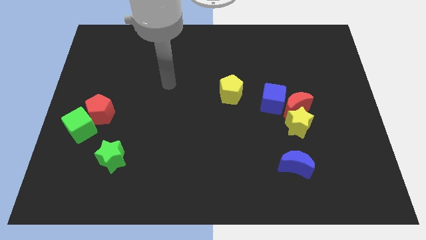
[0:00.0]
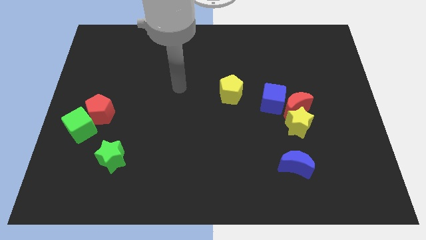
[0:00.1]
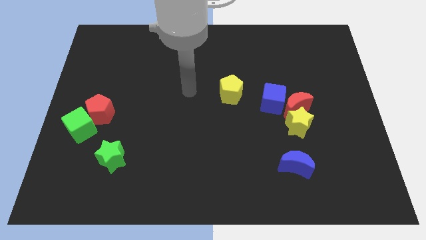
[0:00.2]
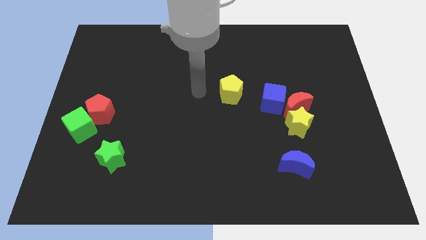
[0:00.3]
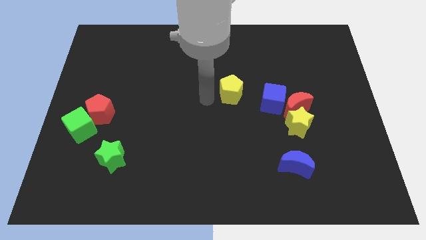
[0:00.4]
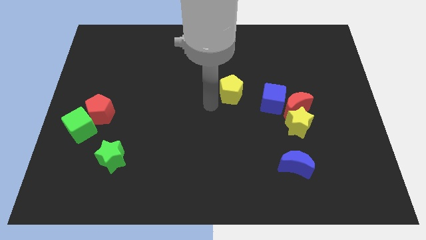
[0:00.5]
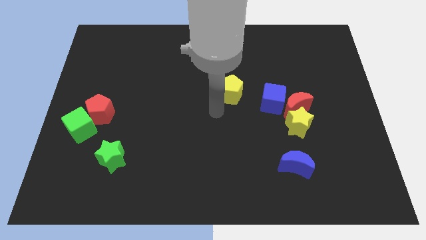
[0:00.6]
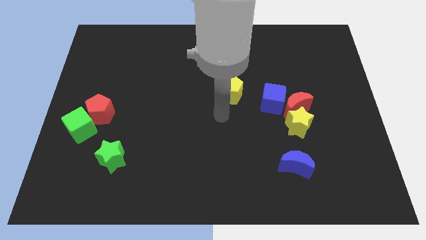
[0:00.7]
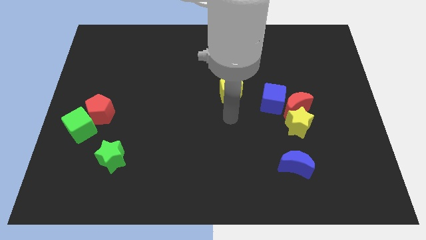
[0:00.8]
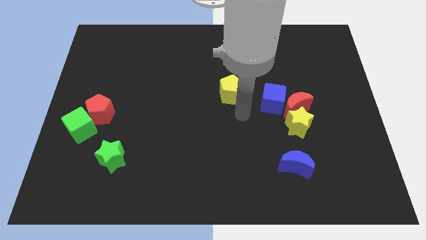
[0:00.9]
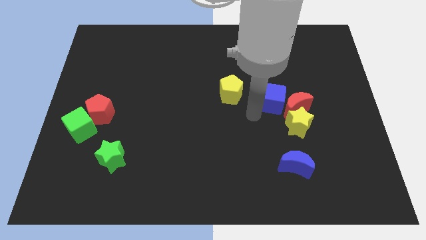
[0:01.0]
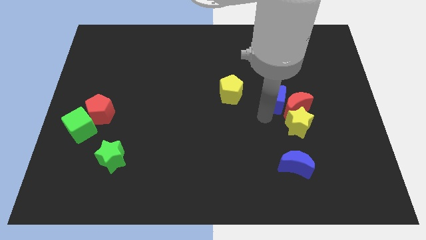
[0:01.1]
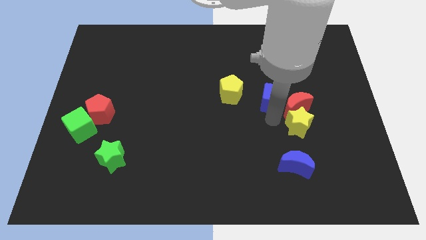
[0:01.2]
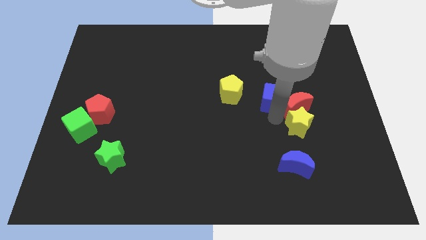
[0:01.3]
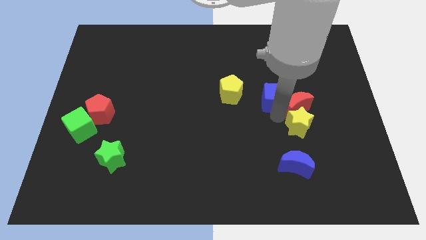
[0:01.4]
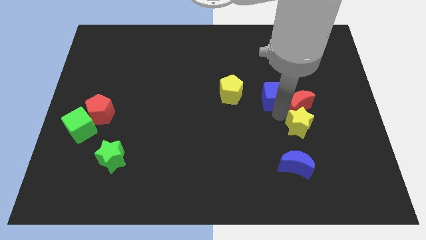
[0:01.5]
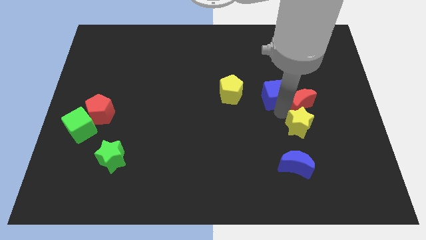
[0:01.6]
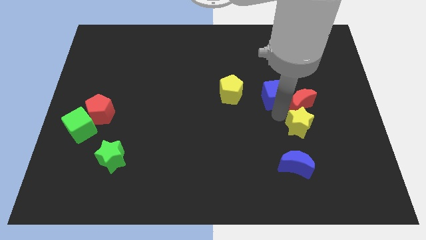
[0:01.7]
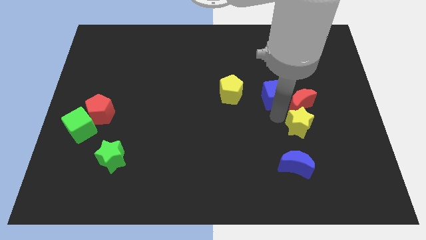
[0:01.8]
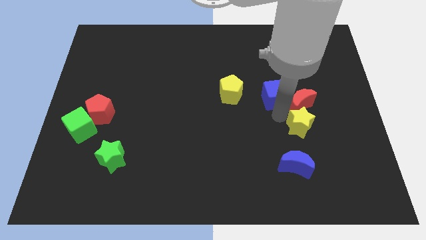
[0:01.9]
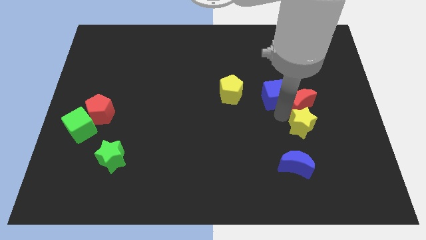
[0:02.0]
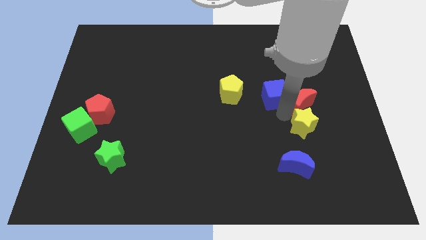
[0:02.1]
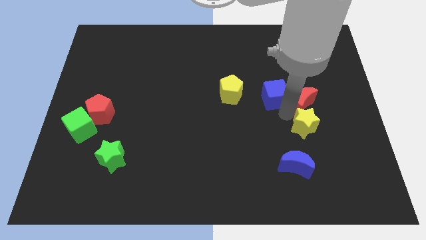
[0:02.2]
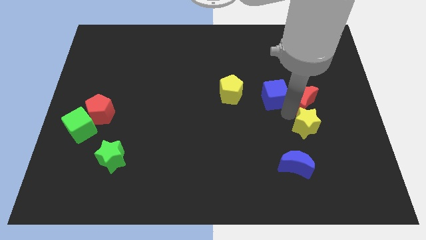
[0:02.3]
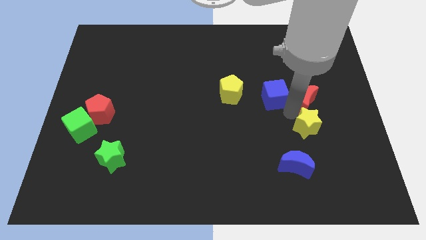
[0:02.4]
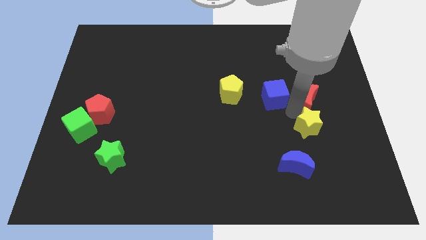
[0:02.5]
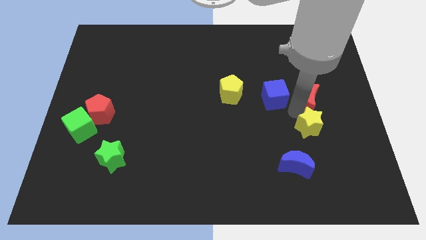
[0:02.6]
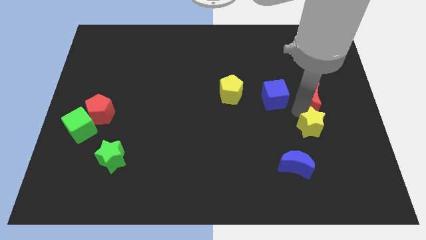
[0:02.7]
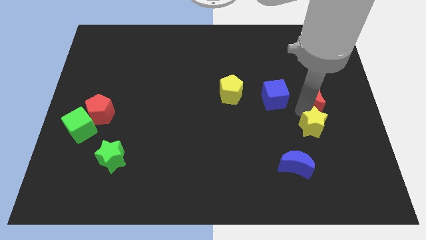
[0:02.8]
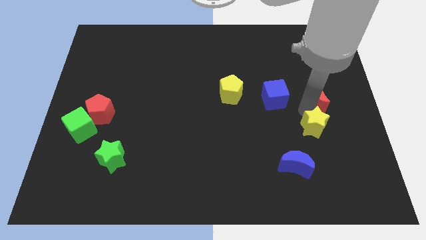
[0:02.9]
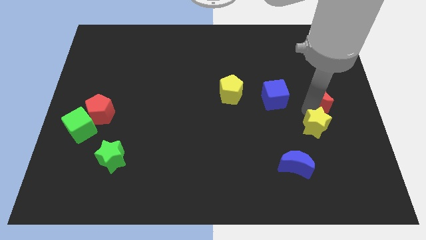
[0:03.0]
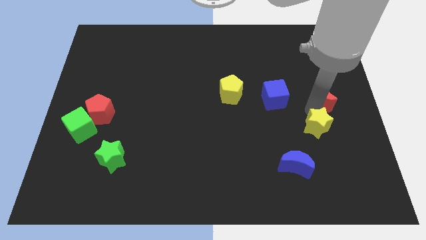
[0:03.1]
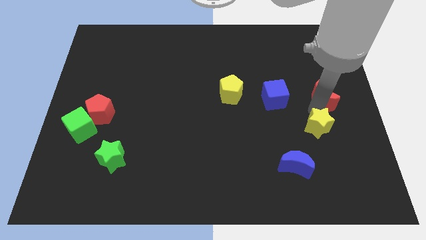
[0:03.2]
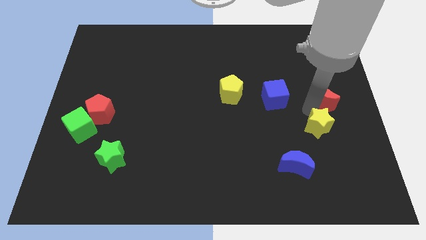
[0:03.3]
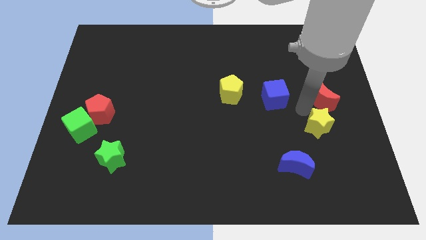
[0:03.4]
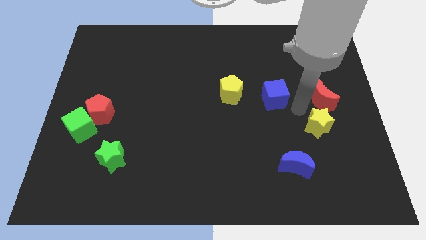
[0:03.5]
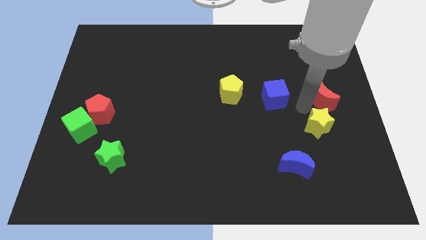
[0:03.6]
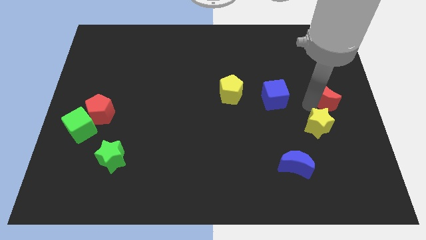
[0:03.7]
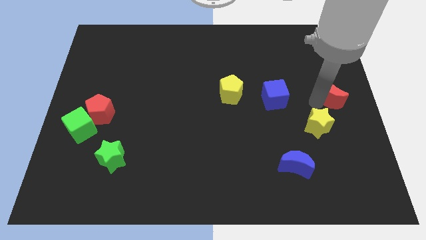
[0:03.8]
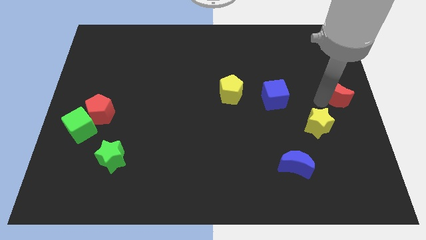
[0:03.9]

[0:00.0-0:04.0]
pull the red moon apart from the yellow star and blue cube

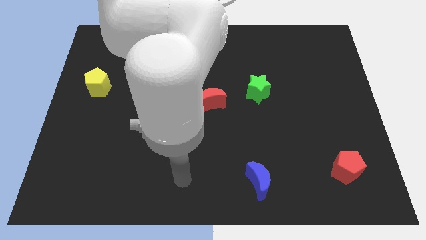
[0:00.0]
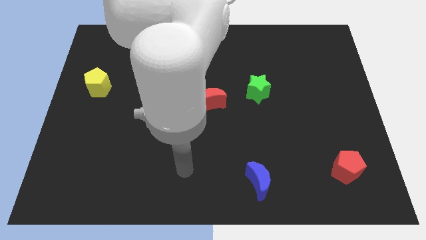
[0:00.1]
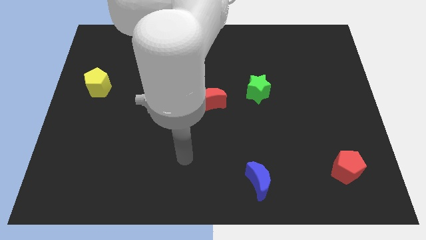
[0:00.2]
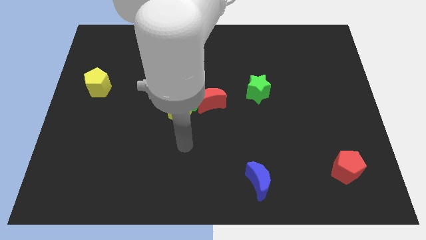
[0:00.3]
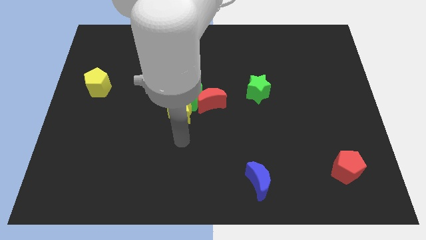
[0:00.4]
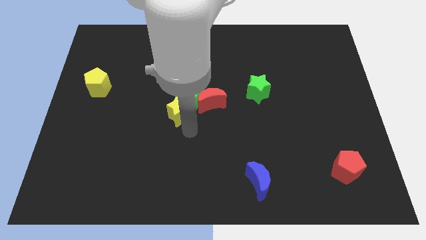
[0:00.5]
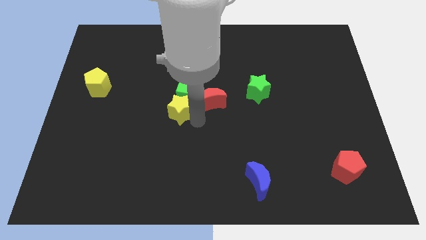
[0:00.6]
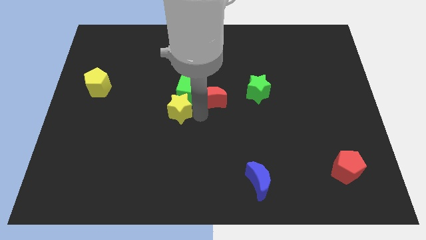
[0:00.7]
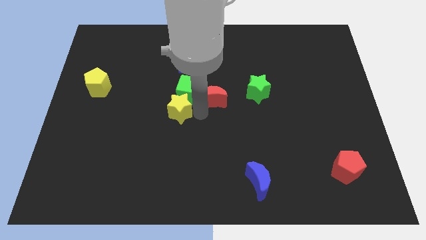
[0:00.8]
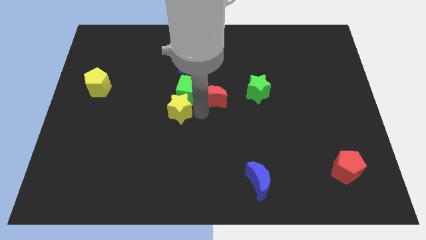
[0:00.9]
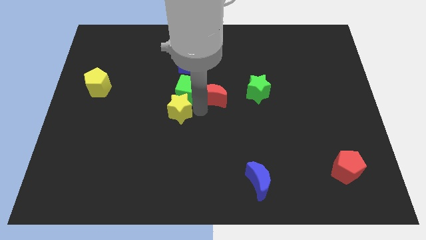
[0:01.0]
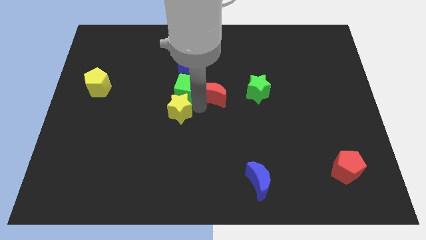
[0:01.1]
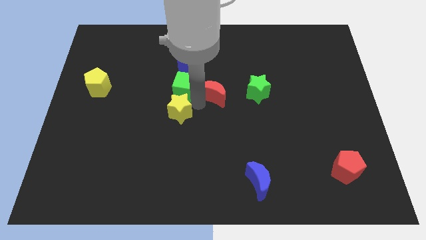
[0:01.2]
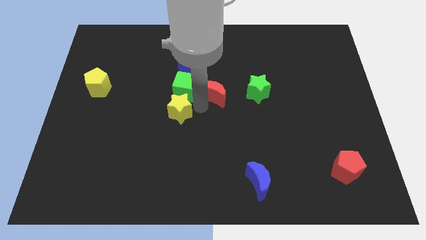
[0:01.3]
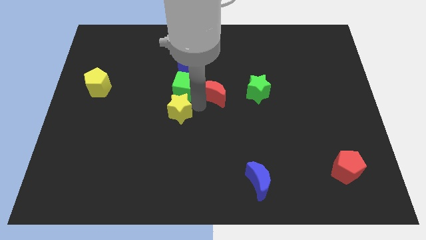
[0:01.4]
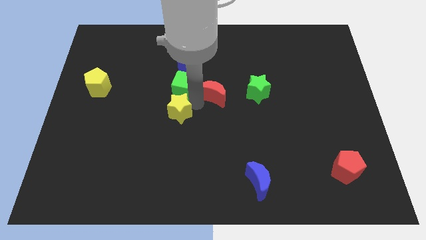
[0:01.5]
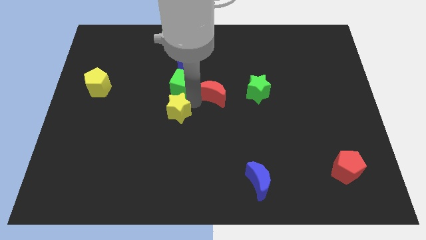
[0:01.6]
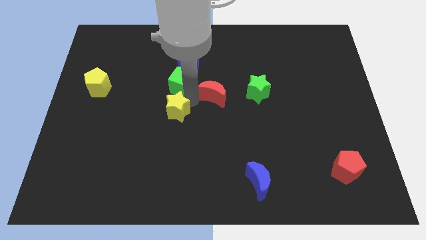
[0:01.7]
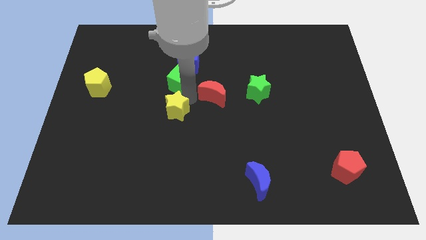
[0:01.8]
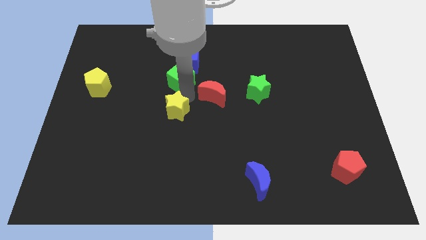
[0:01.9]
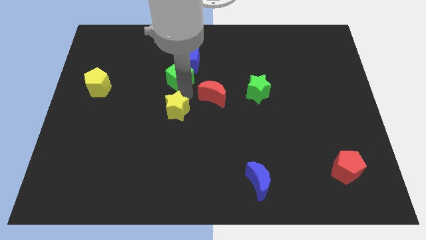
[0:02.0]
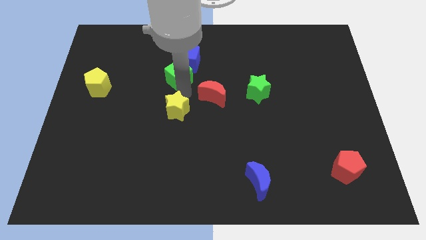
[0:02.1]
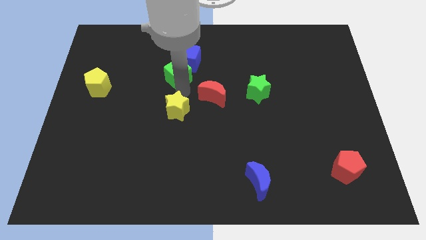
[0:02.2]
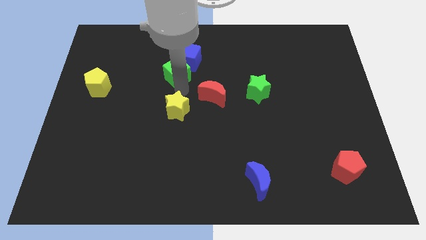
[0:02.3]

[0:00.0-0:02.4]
separate the green cube from the yellow star and red moon

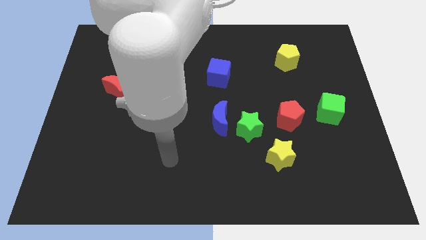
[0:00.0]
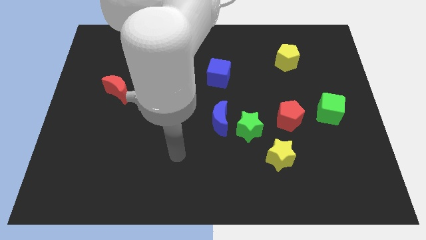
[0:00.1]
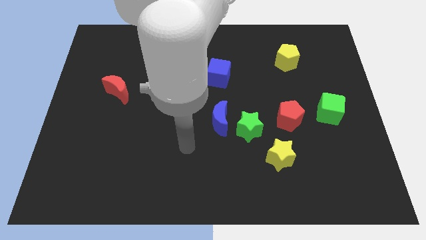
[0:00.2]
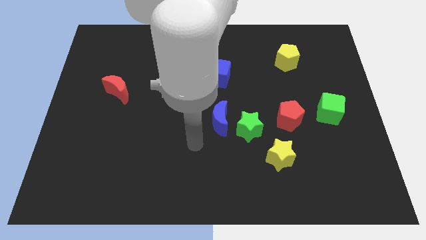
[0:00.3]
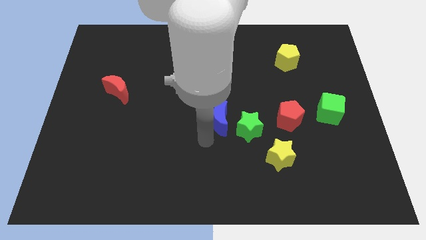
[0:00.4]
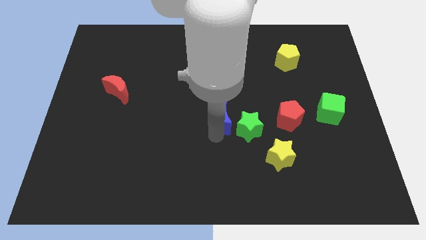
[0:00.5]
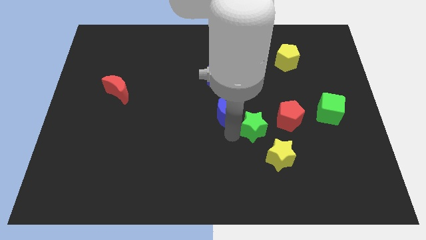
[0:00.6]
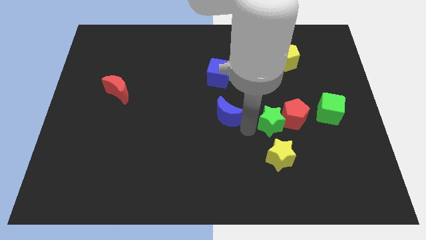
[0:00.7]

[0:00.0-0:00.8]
move the blue moon away from the green star

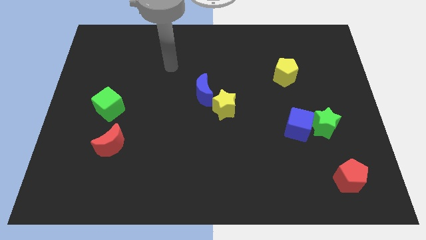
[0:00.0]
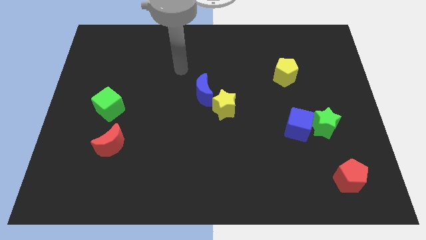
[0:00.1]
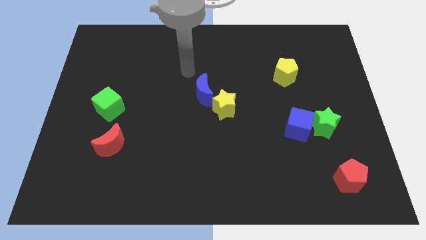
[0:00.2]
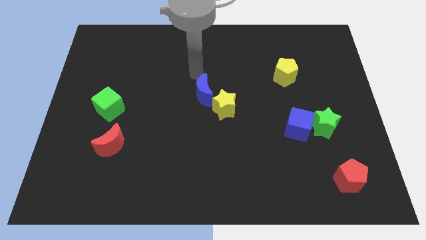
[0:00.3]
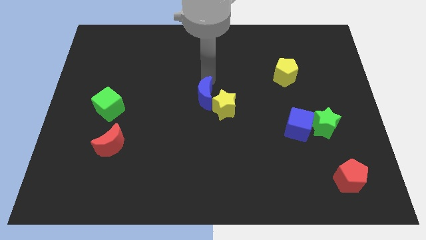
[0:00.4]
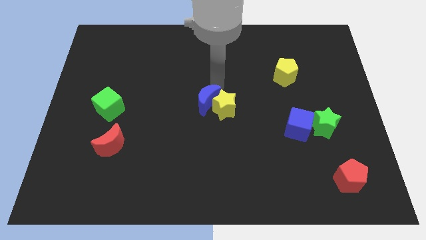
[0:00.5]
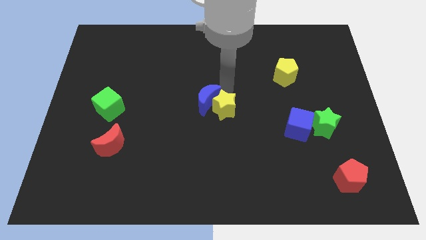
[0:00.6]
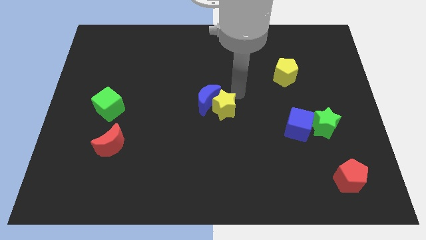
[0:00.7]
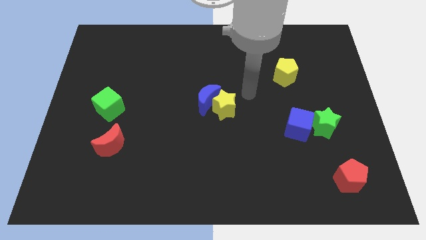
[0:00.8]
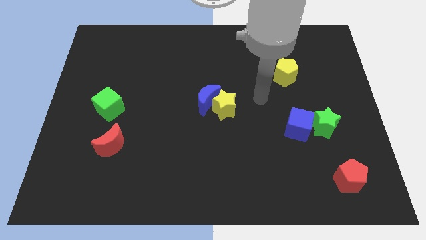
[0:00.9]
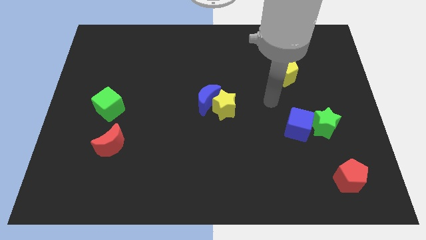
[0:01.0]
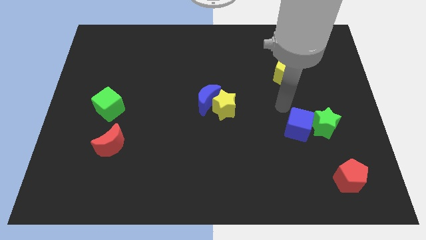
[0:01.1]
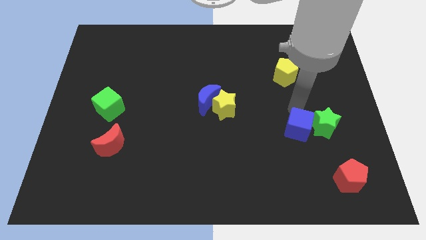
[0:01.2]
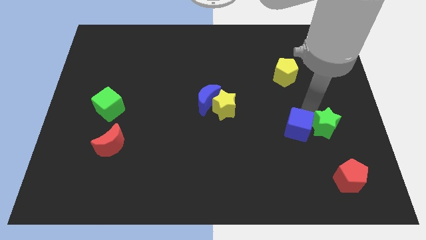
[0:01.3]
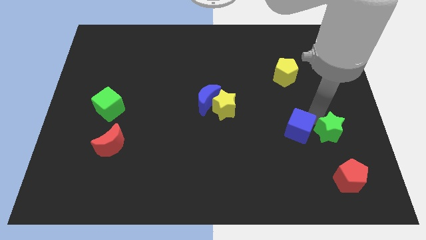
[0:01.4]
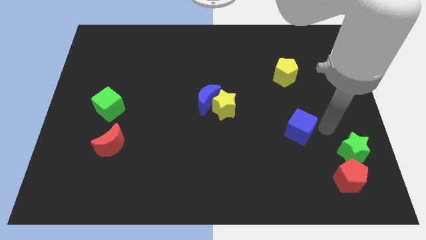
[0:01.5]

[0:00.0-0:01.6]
pull the blue cube apart from the green star

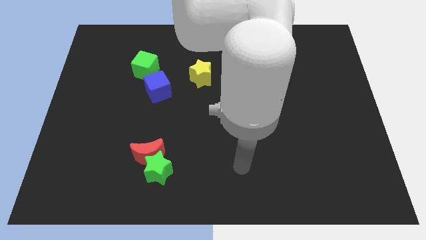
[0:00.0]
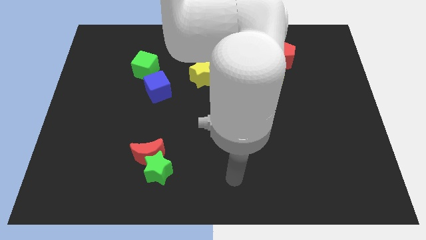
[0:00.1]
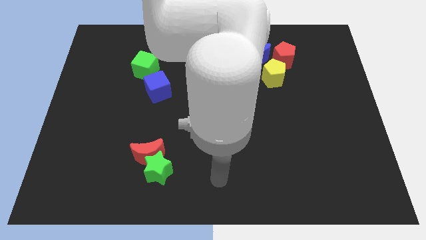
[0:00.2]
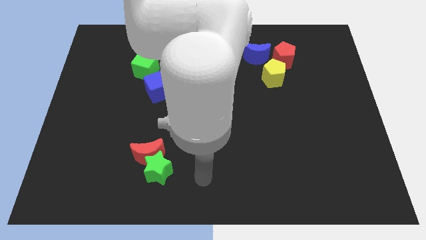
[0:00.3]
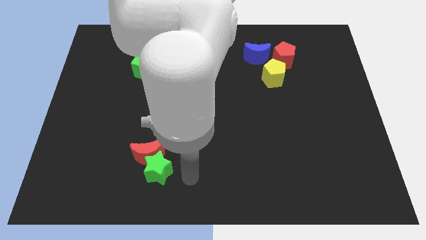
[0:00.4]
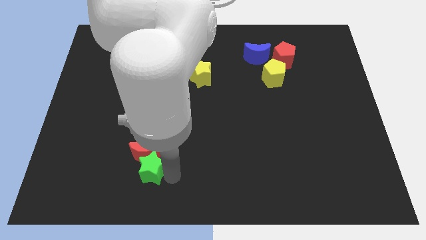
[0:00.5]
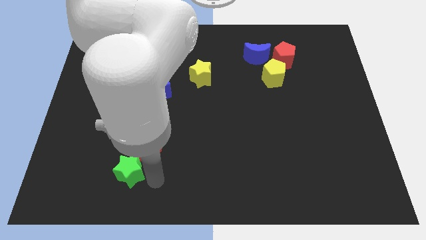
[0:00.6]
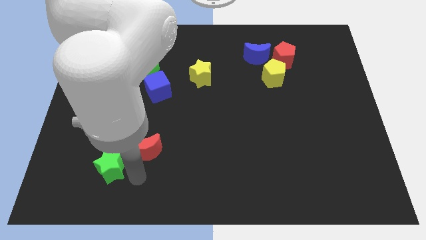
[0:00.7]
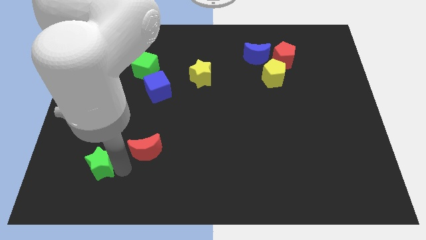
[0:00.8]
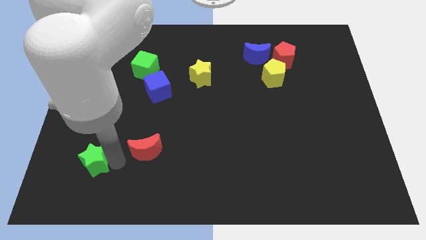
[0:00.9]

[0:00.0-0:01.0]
pull the red moon apart from the green star
